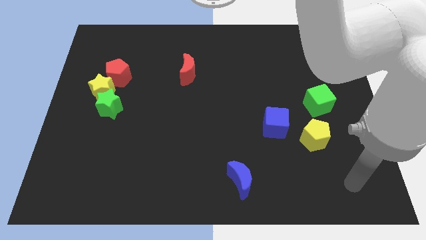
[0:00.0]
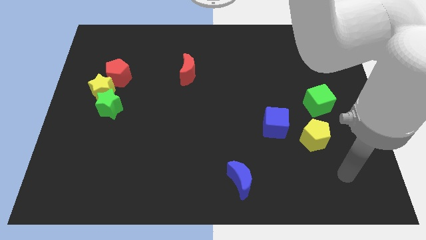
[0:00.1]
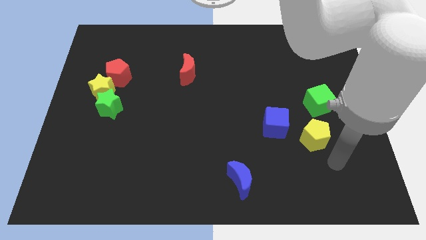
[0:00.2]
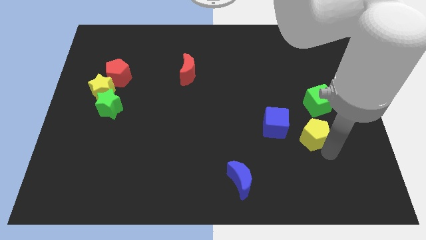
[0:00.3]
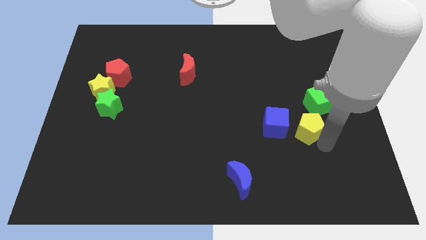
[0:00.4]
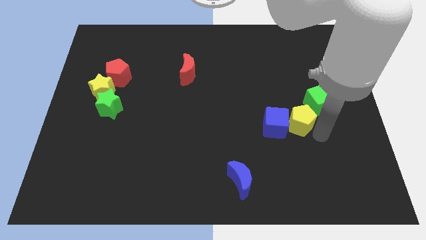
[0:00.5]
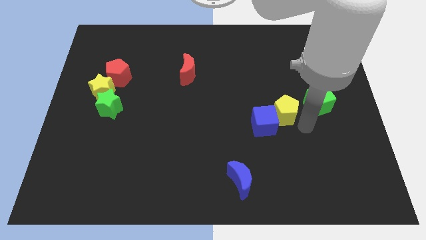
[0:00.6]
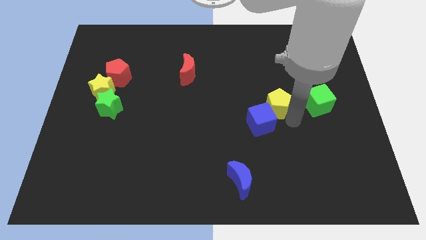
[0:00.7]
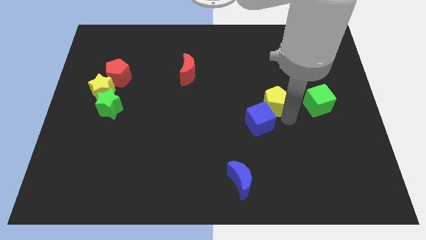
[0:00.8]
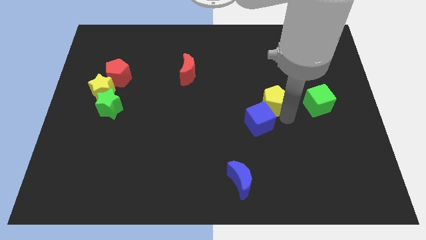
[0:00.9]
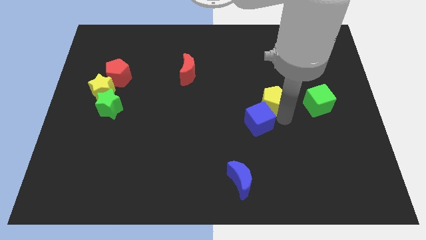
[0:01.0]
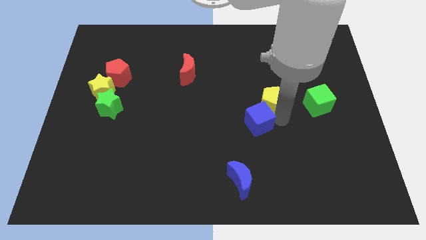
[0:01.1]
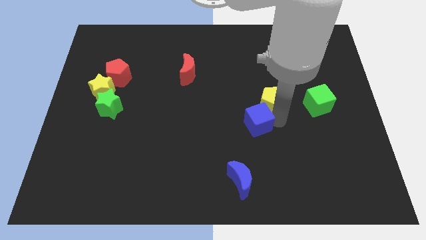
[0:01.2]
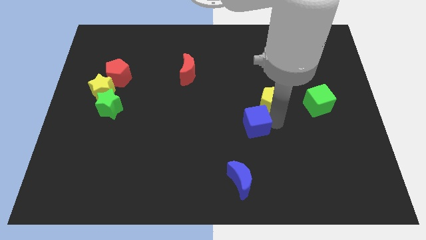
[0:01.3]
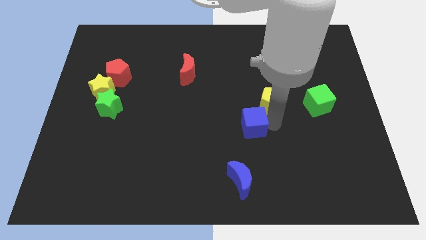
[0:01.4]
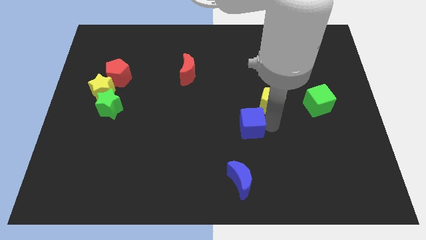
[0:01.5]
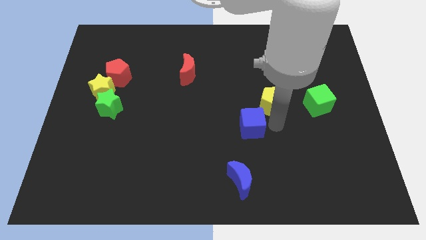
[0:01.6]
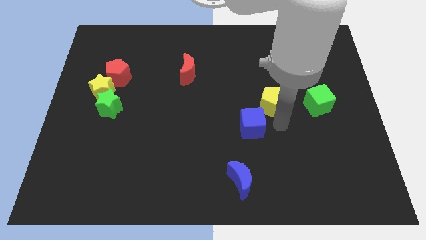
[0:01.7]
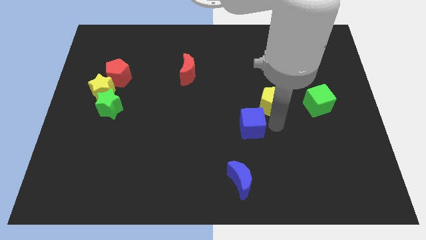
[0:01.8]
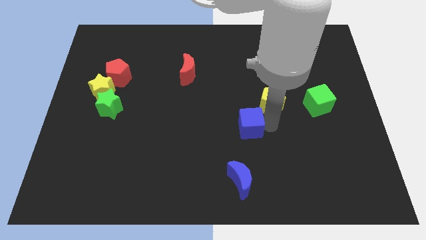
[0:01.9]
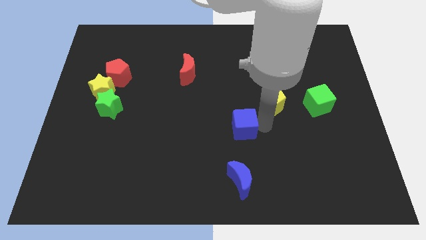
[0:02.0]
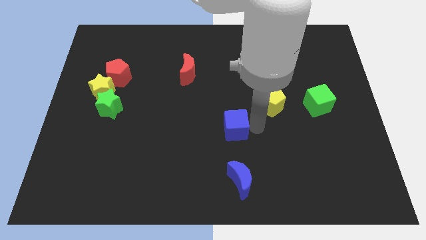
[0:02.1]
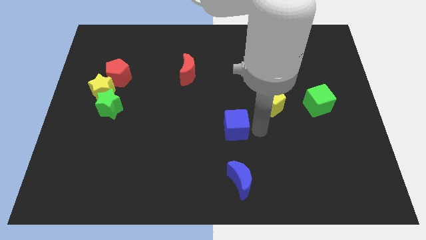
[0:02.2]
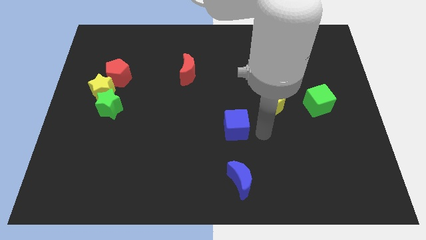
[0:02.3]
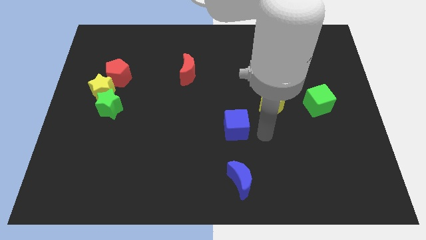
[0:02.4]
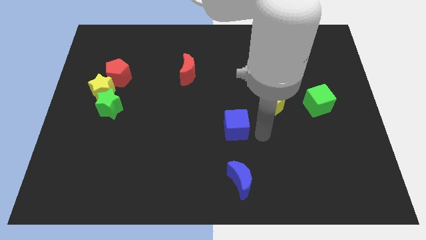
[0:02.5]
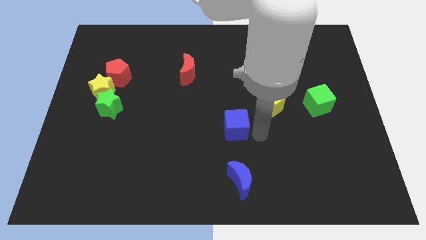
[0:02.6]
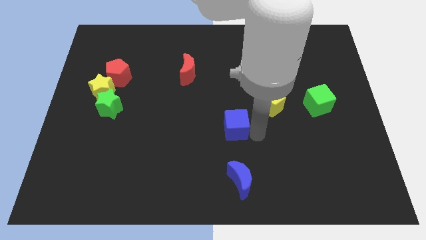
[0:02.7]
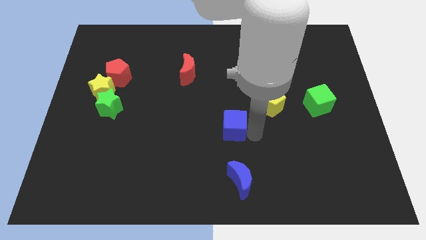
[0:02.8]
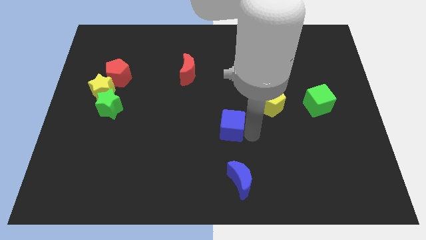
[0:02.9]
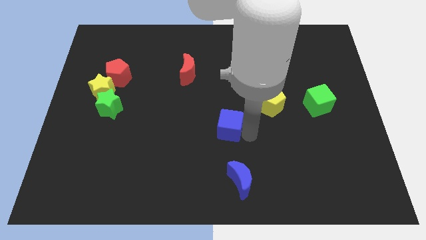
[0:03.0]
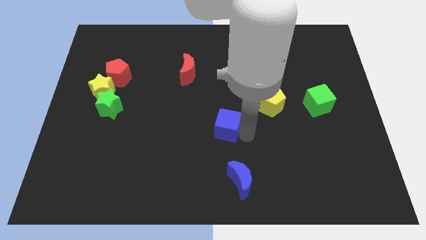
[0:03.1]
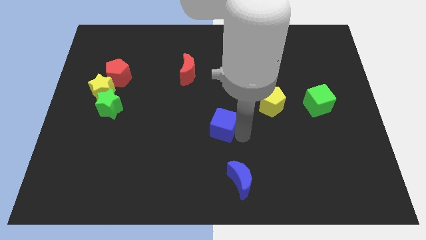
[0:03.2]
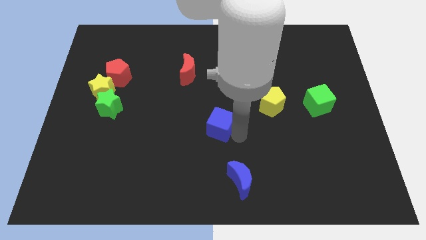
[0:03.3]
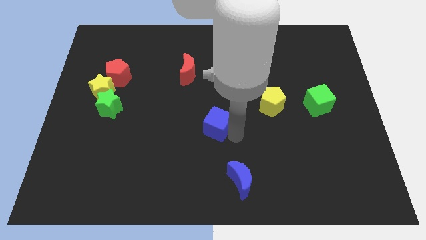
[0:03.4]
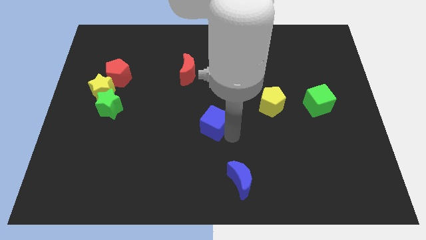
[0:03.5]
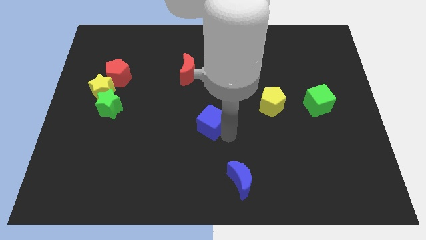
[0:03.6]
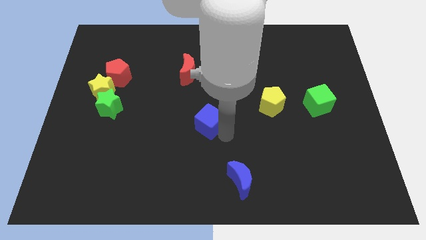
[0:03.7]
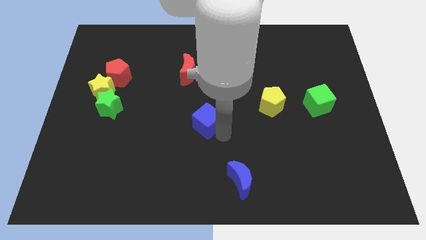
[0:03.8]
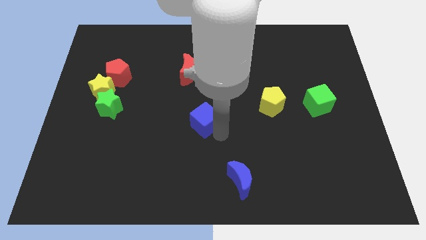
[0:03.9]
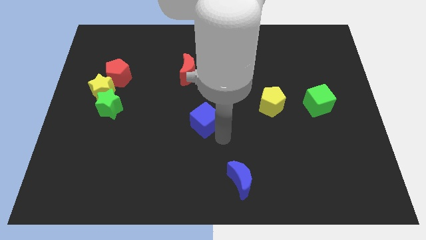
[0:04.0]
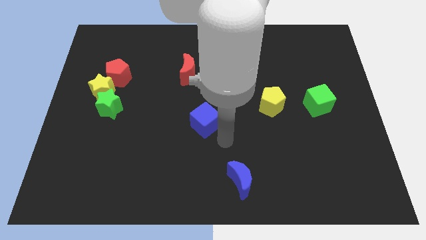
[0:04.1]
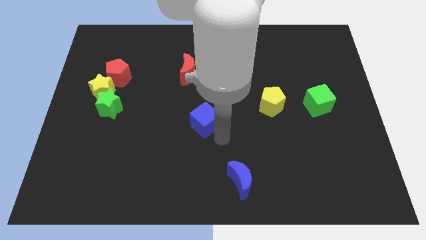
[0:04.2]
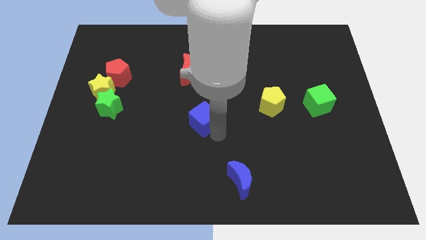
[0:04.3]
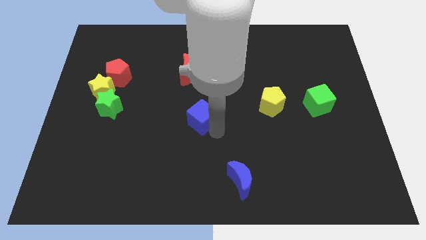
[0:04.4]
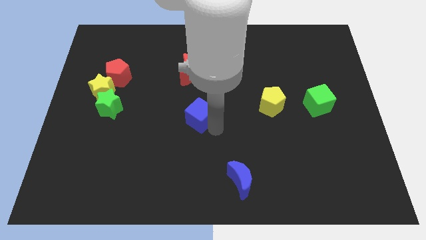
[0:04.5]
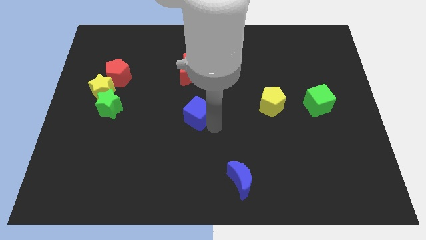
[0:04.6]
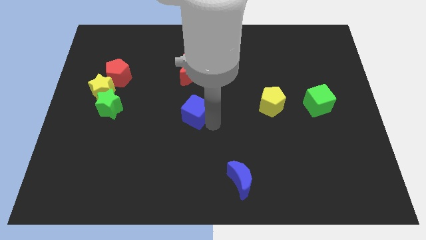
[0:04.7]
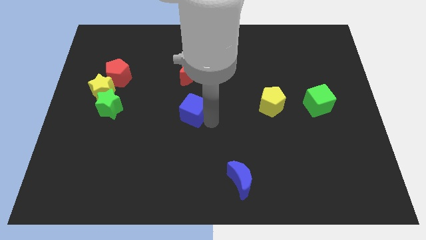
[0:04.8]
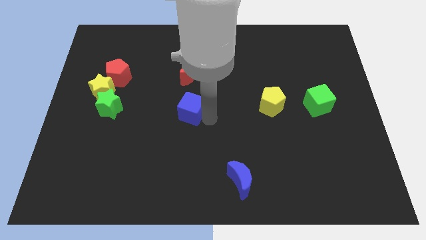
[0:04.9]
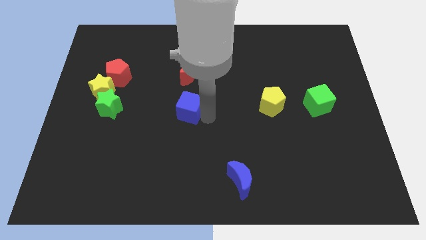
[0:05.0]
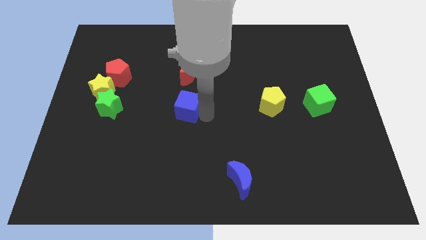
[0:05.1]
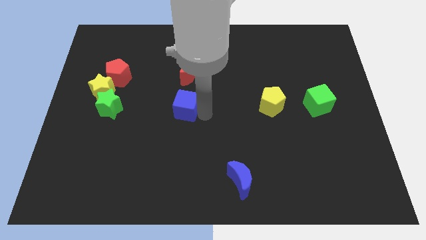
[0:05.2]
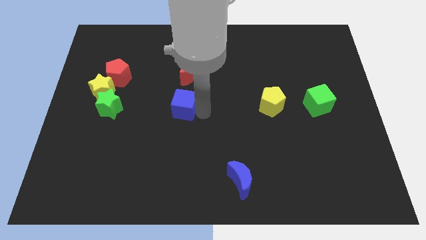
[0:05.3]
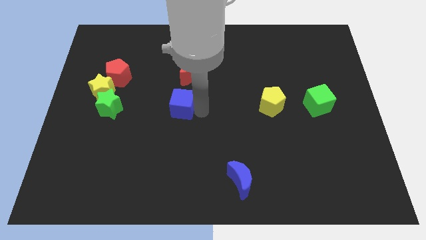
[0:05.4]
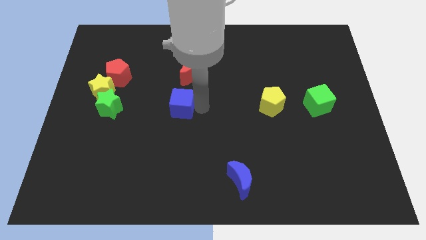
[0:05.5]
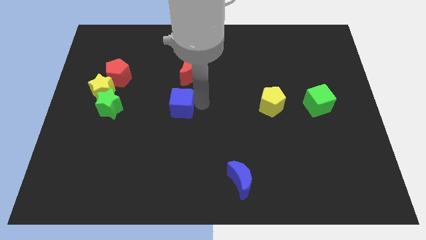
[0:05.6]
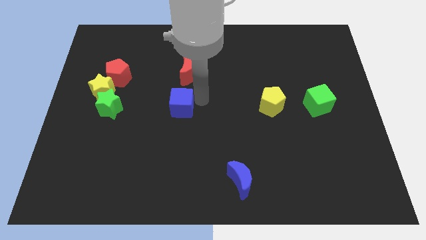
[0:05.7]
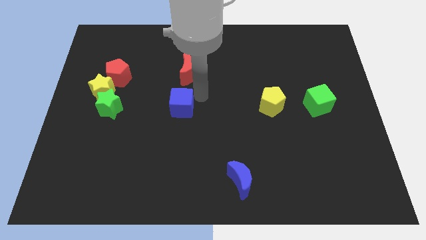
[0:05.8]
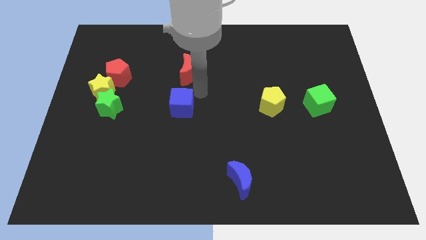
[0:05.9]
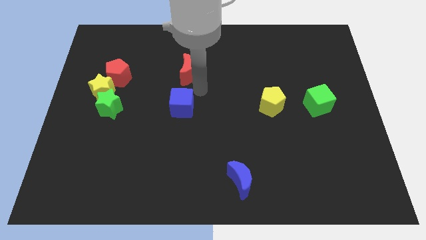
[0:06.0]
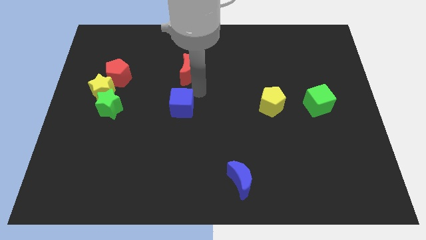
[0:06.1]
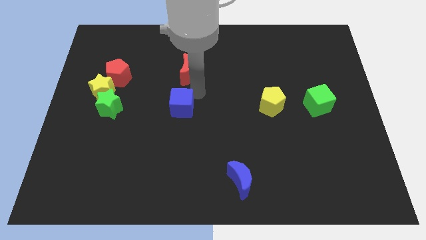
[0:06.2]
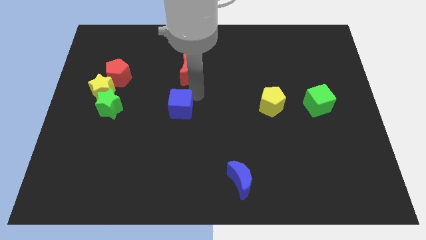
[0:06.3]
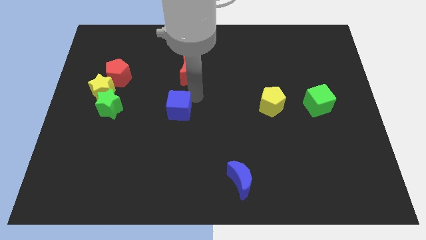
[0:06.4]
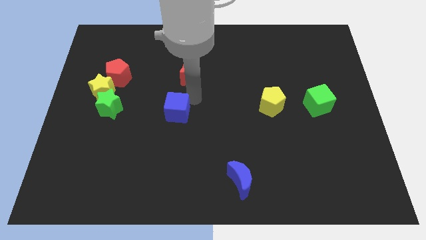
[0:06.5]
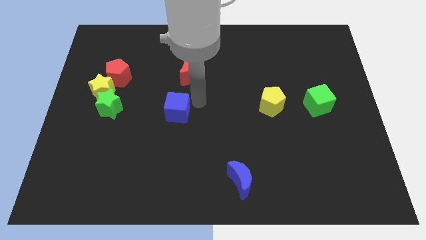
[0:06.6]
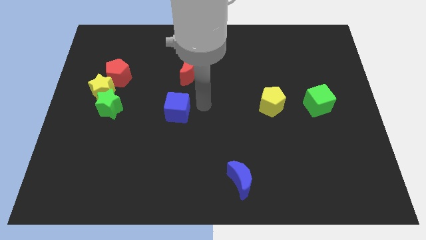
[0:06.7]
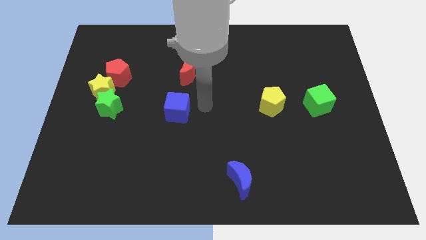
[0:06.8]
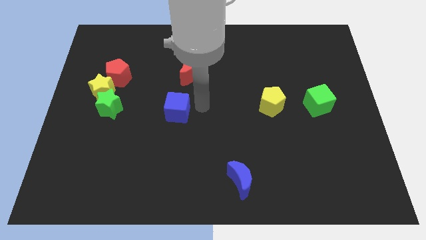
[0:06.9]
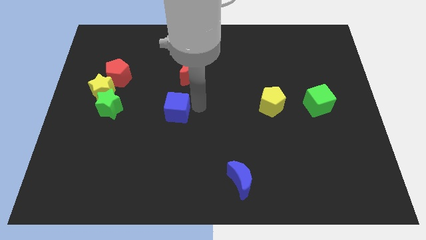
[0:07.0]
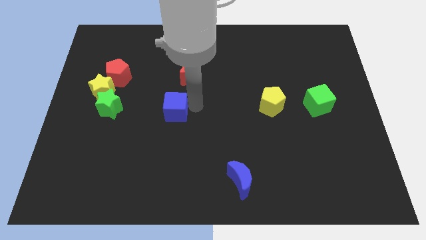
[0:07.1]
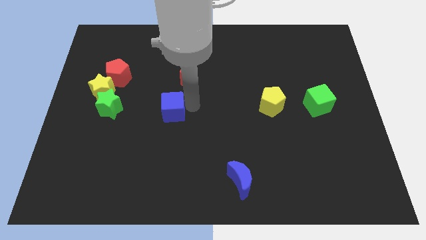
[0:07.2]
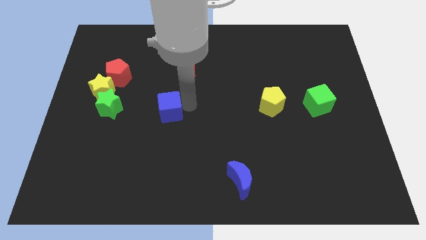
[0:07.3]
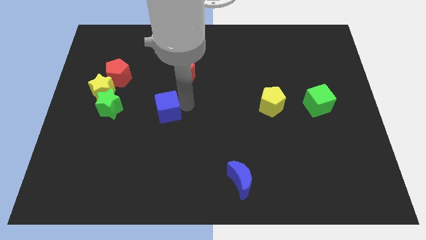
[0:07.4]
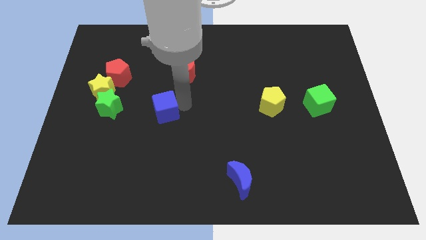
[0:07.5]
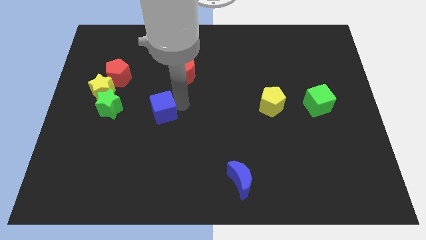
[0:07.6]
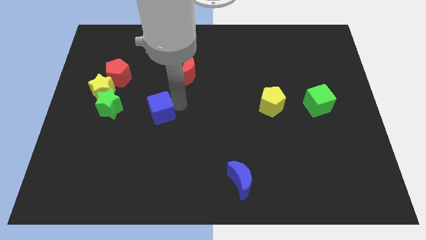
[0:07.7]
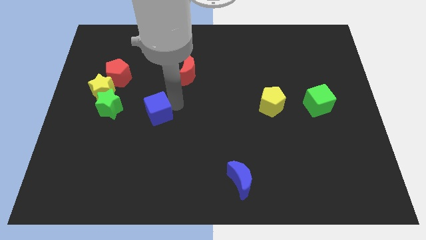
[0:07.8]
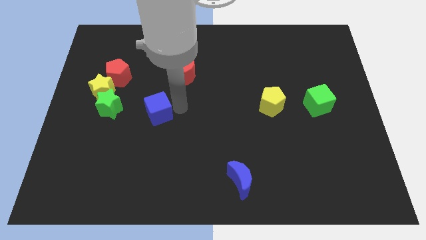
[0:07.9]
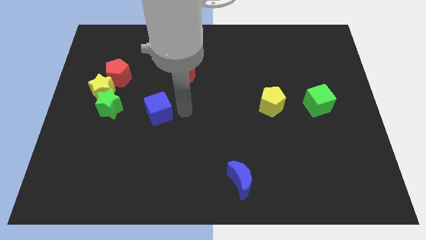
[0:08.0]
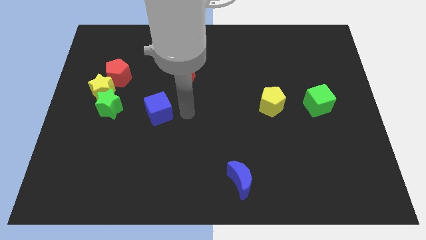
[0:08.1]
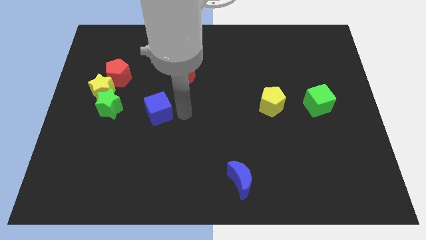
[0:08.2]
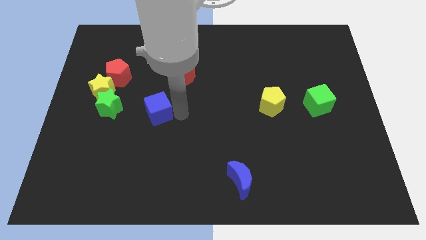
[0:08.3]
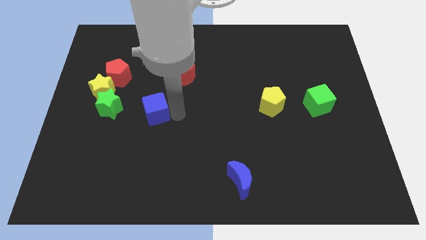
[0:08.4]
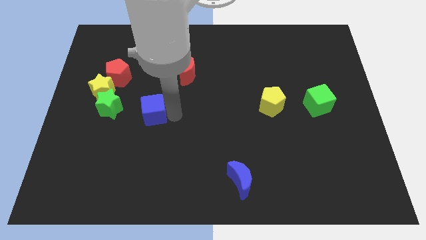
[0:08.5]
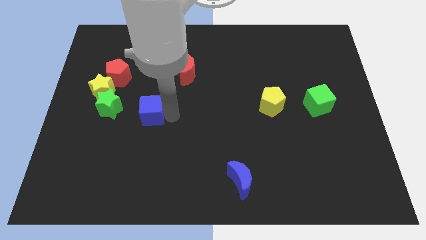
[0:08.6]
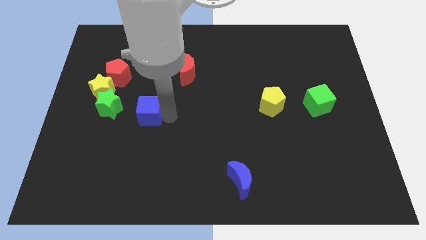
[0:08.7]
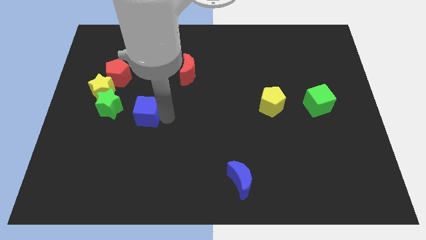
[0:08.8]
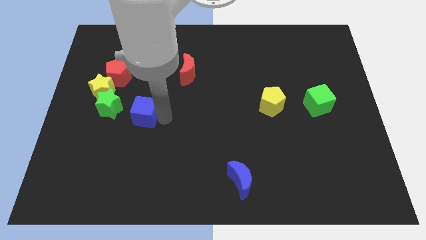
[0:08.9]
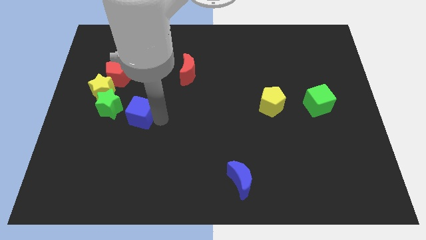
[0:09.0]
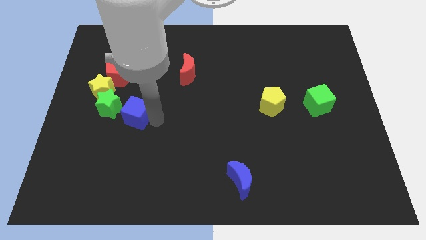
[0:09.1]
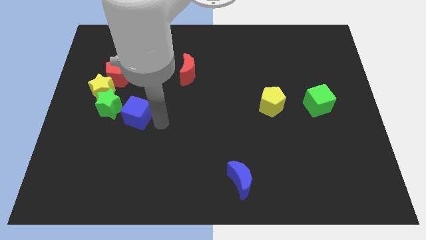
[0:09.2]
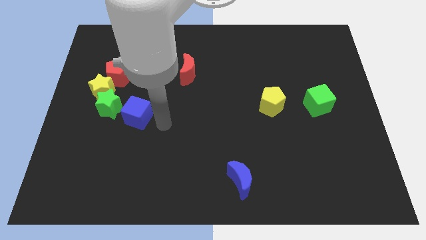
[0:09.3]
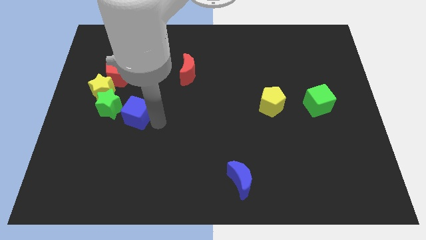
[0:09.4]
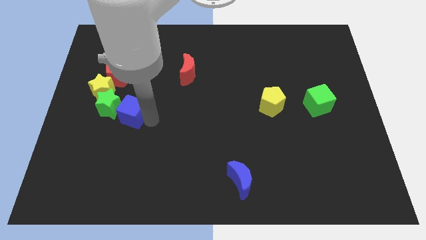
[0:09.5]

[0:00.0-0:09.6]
put the blue cube towards the green star
